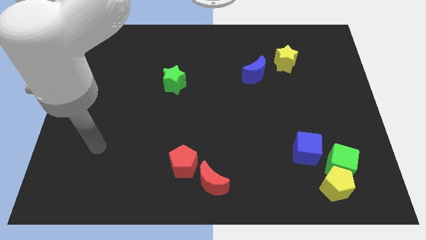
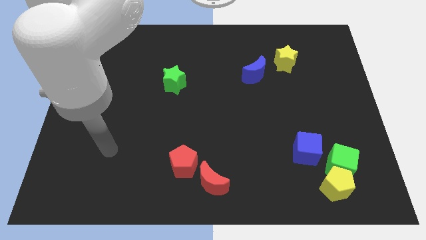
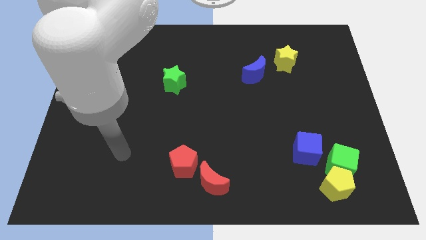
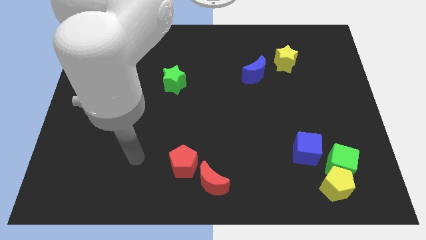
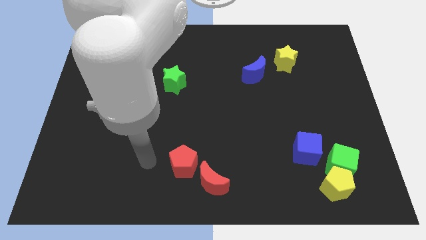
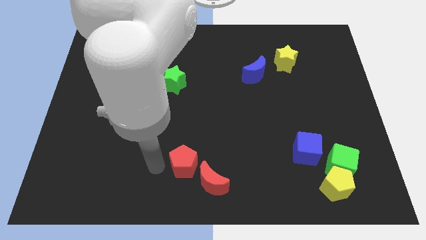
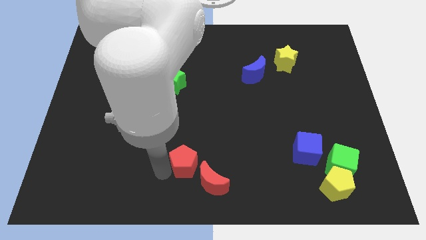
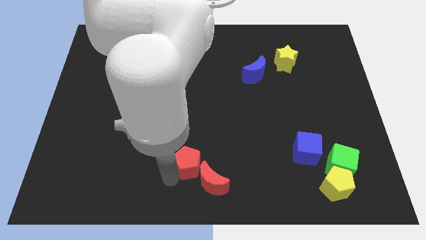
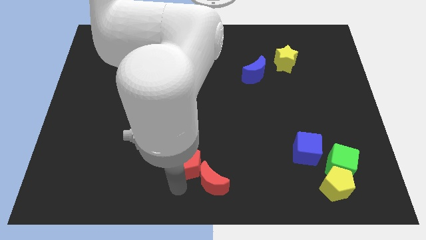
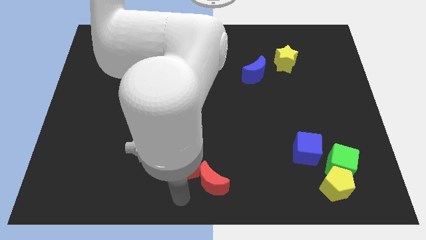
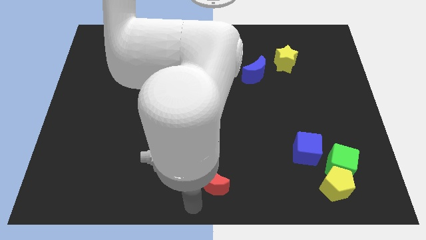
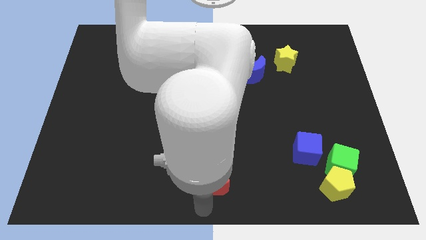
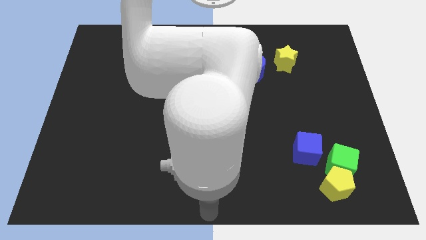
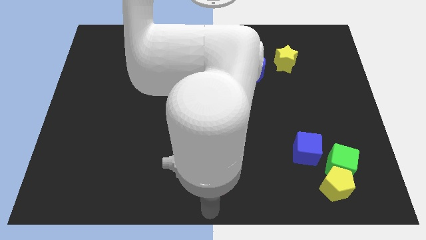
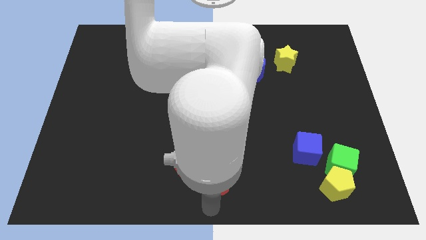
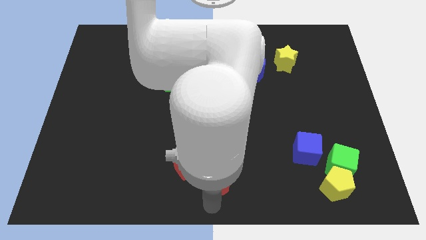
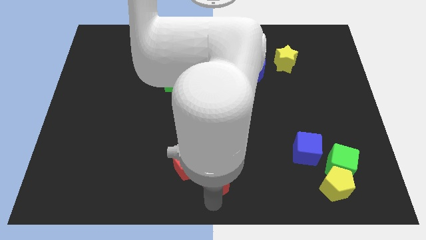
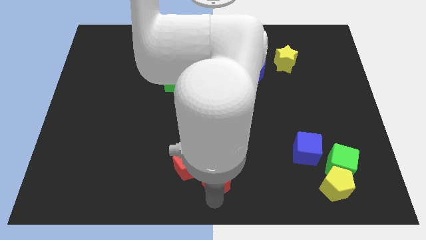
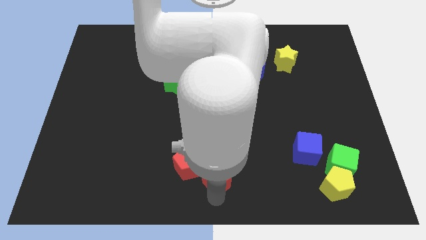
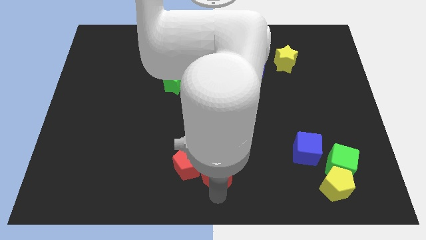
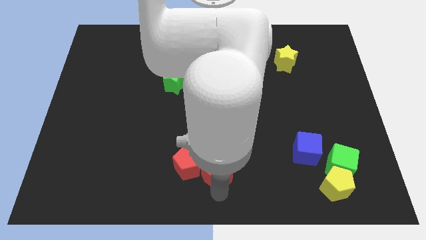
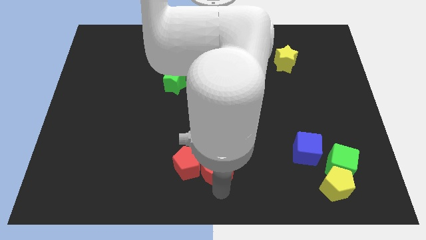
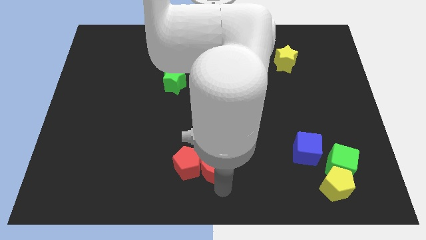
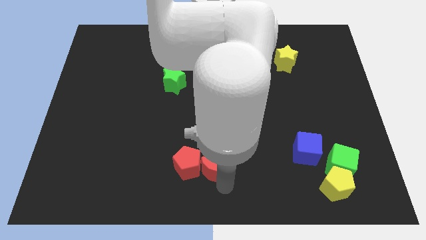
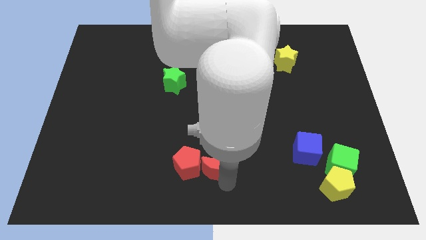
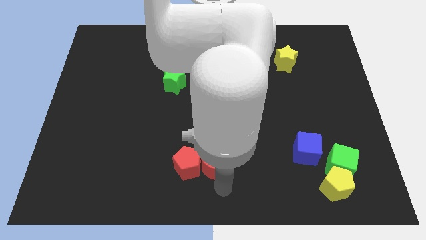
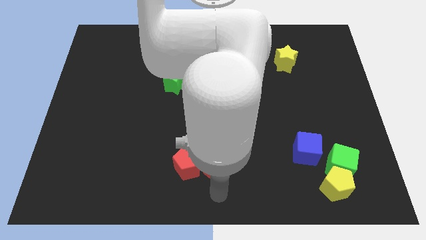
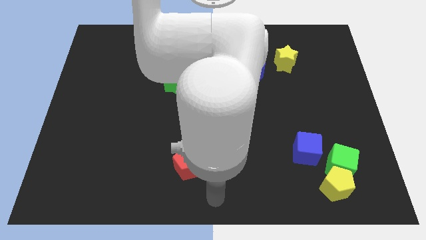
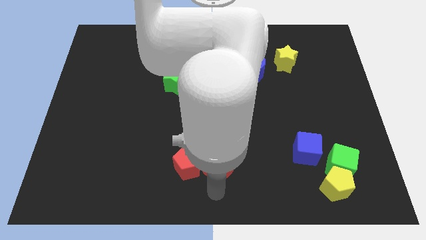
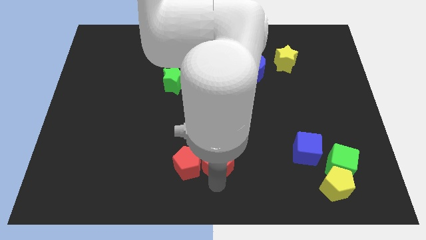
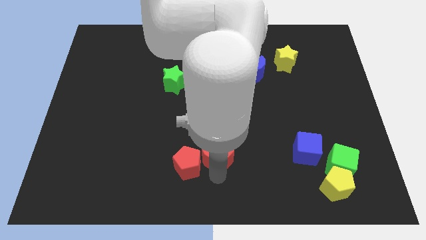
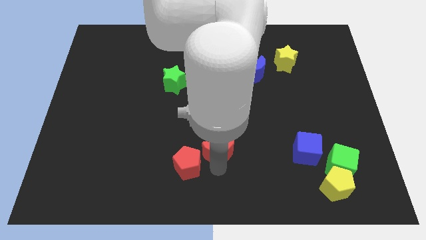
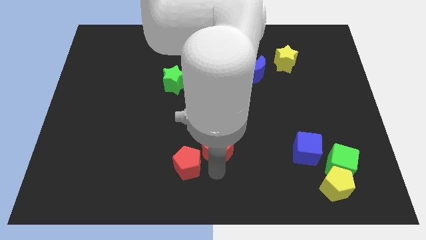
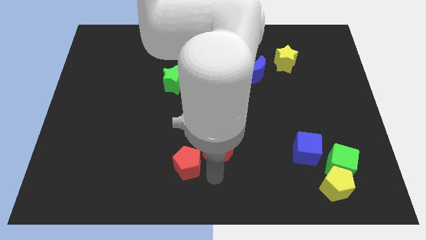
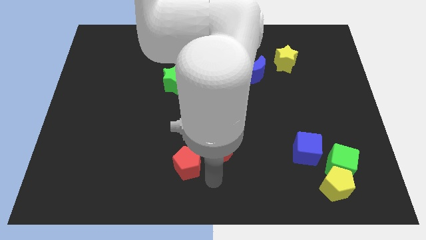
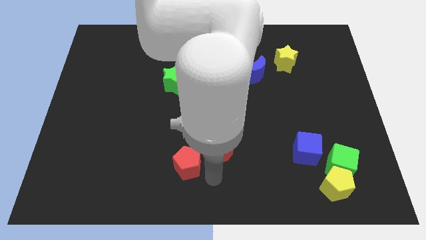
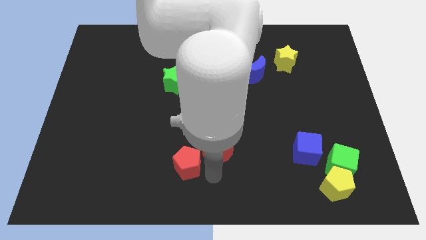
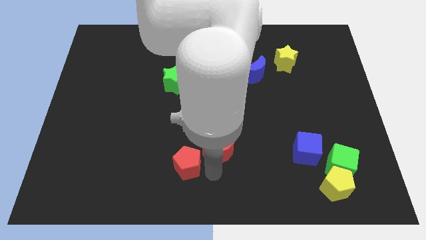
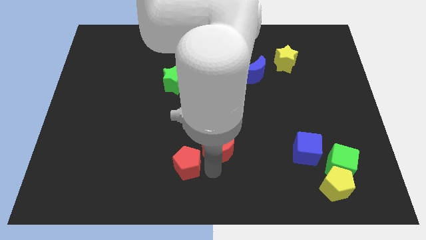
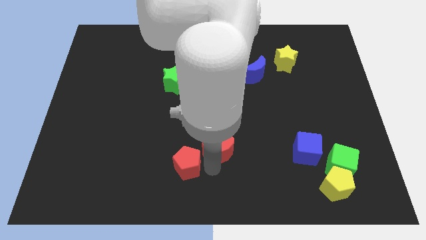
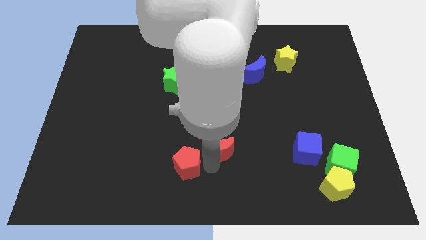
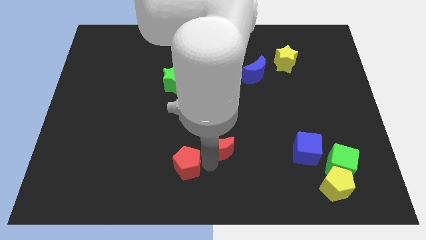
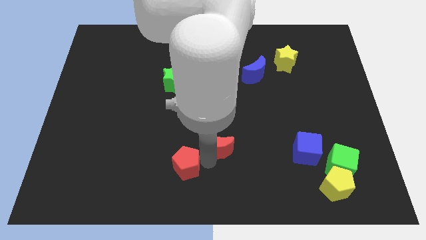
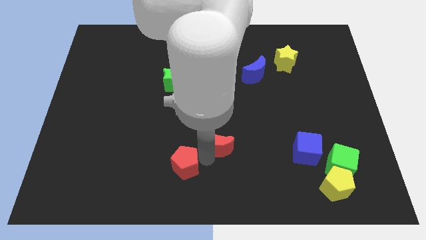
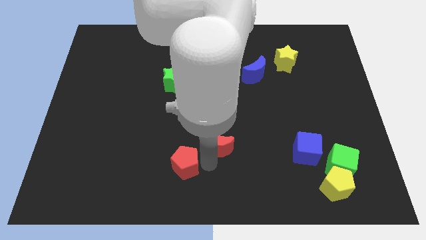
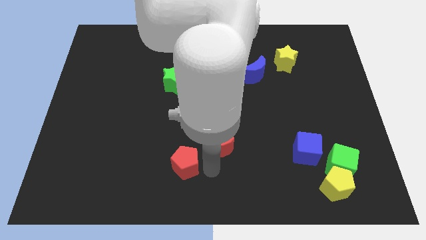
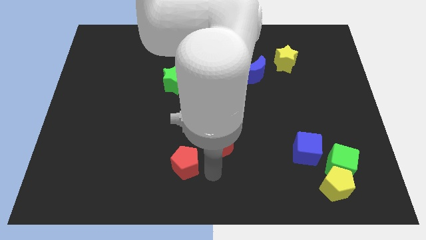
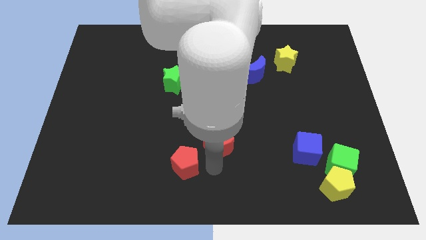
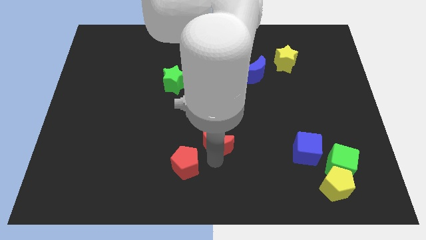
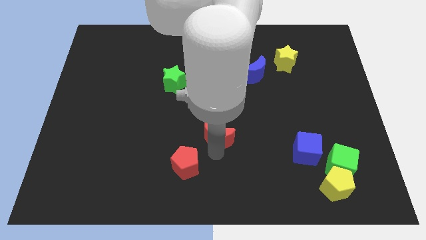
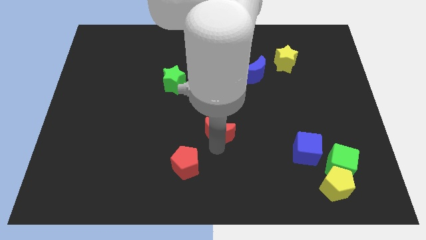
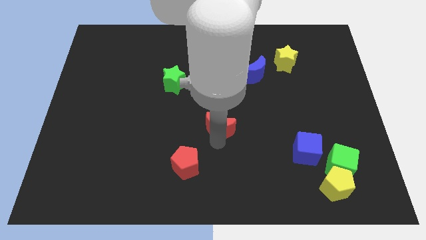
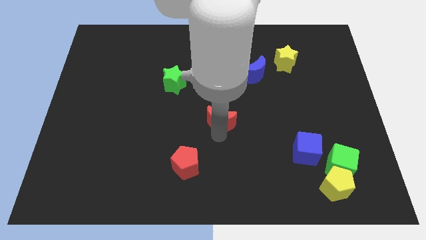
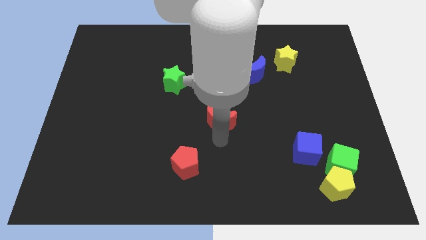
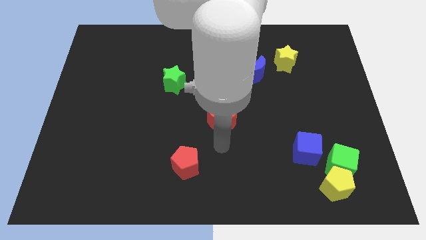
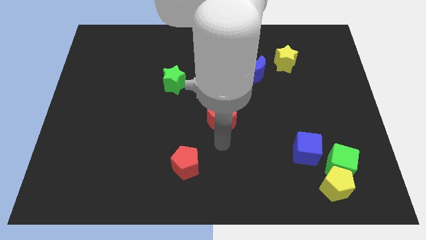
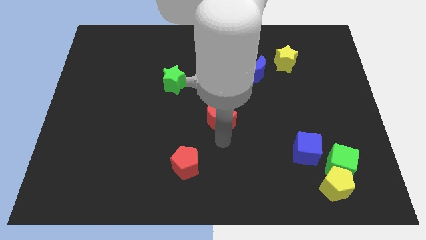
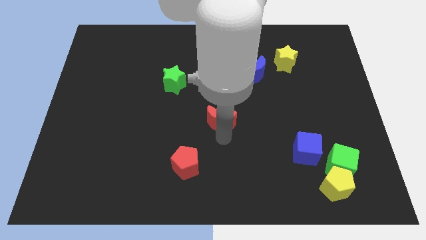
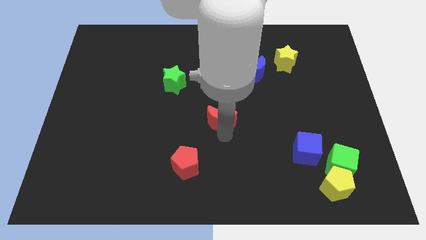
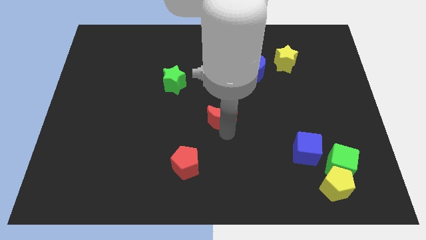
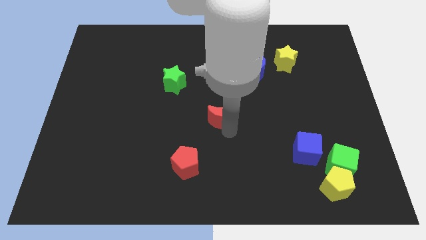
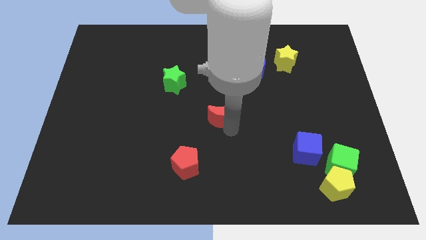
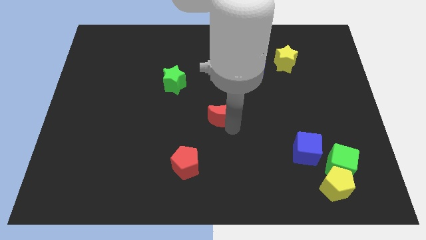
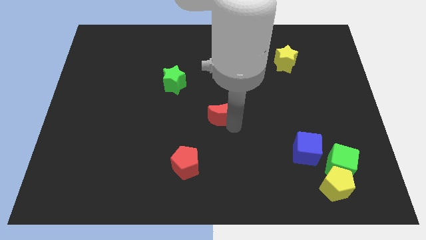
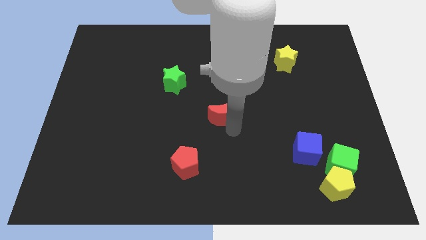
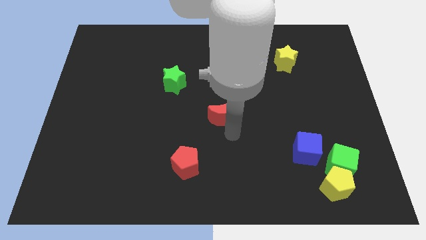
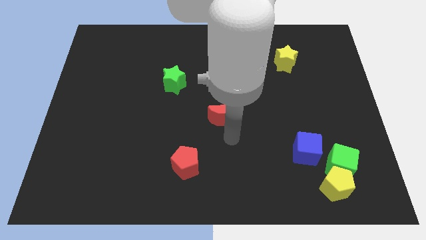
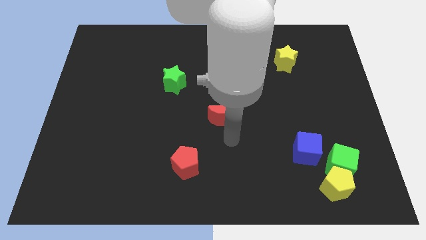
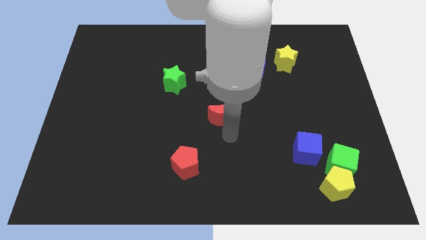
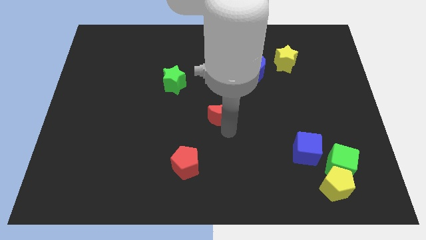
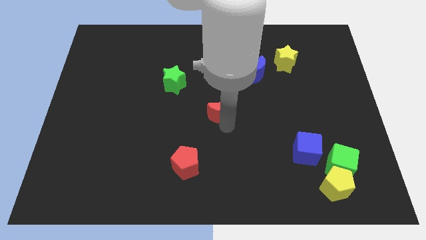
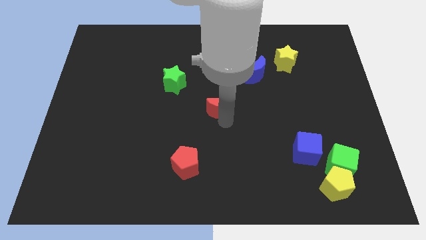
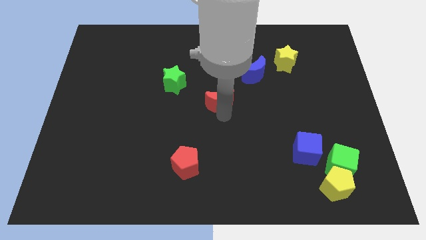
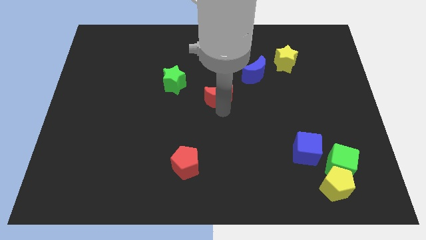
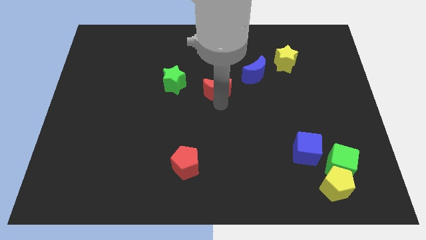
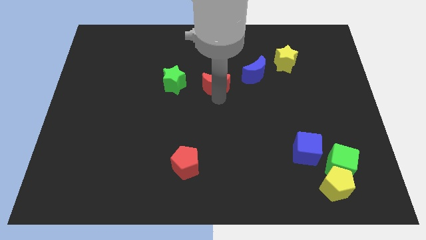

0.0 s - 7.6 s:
push the red moon to the left side of the blue moon
